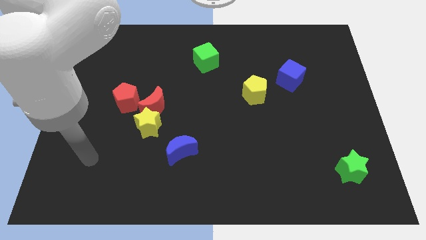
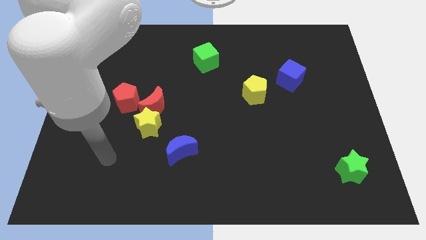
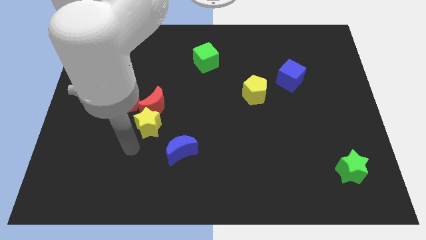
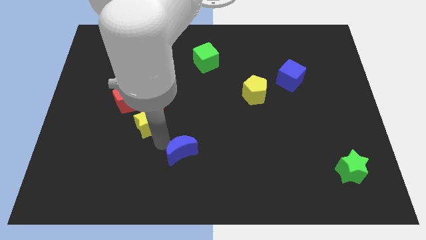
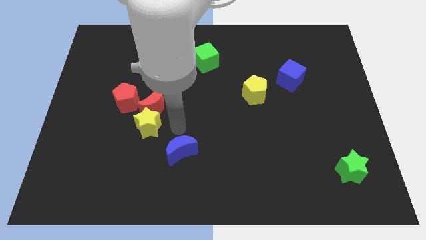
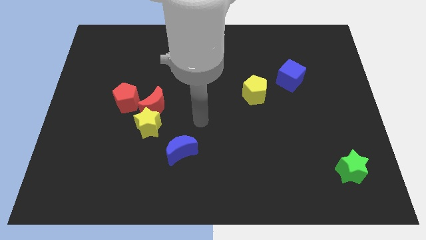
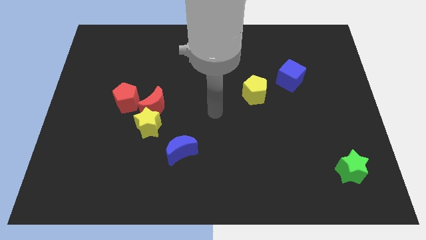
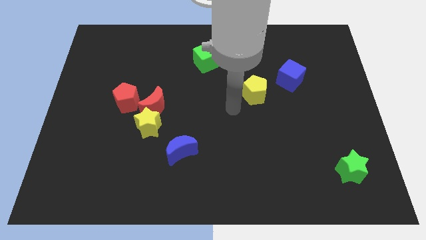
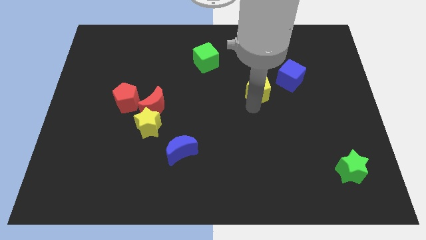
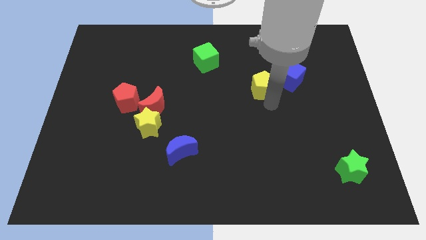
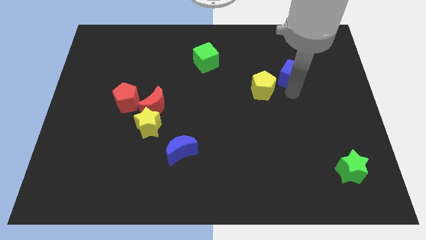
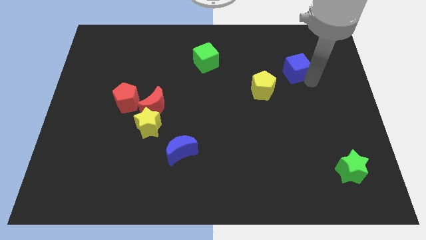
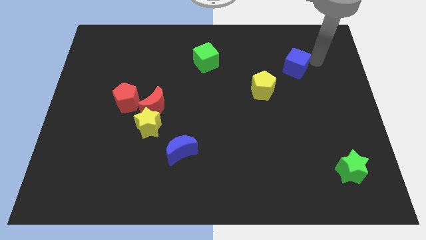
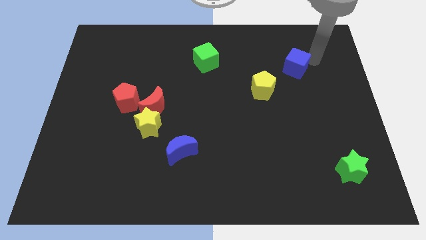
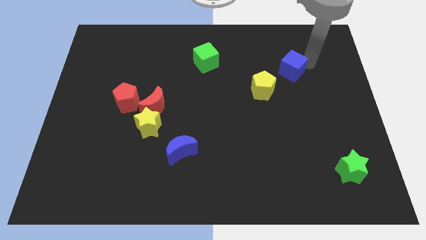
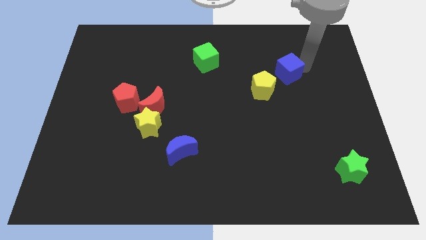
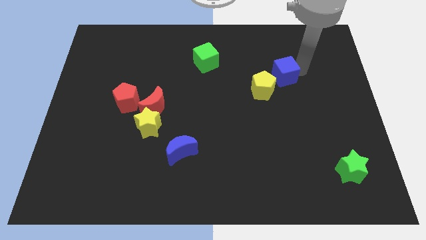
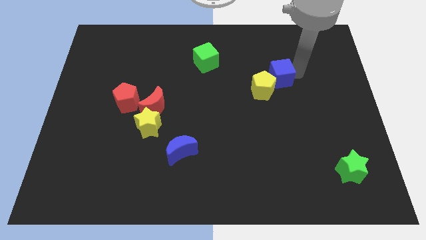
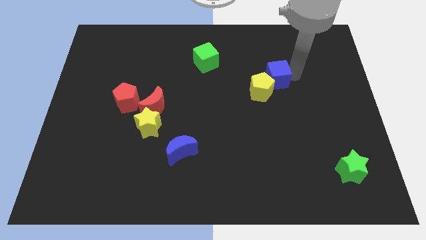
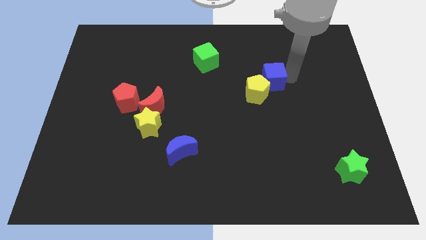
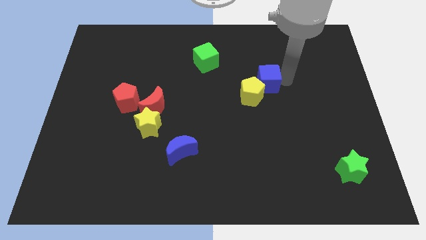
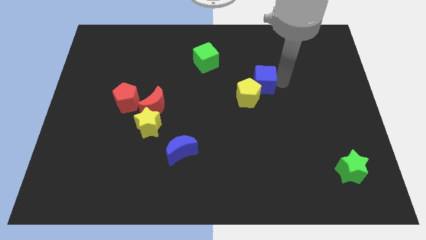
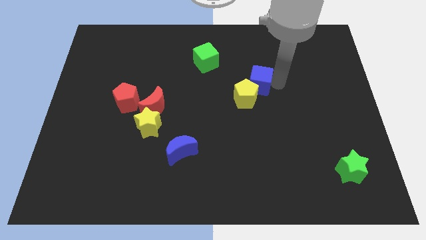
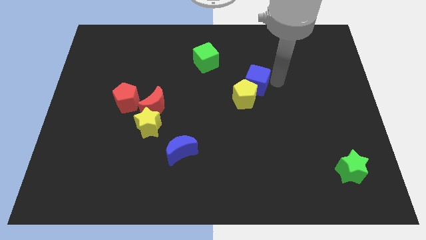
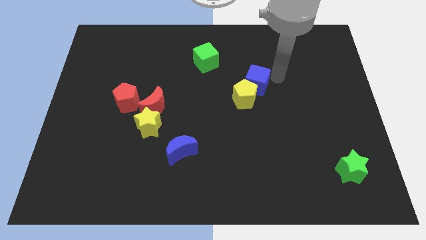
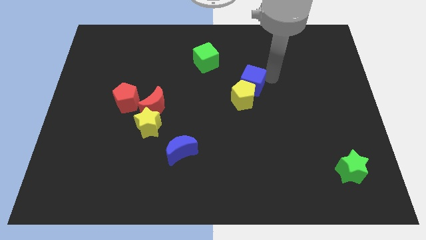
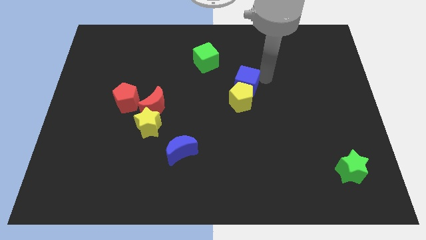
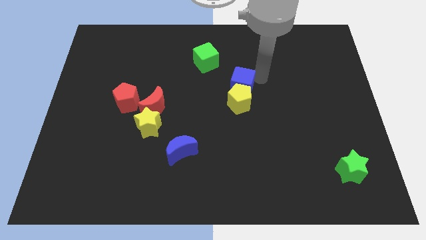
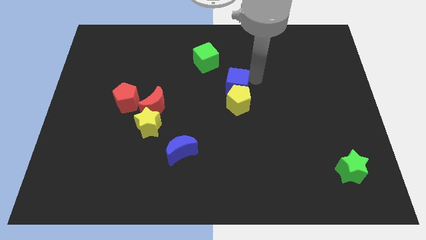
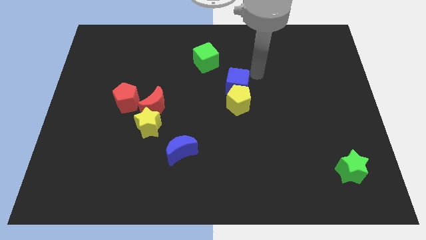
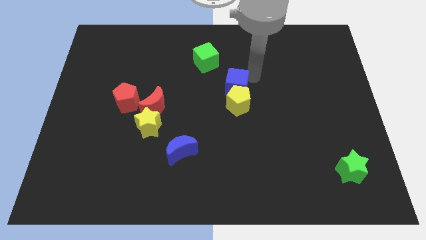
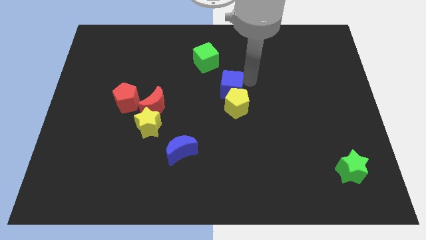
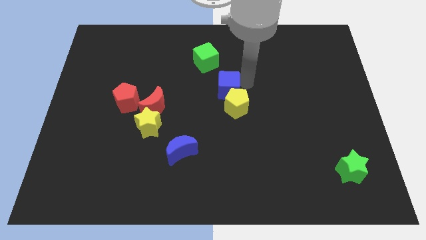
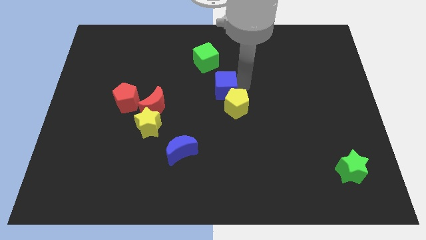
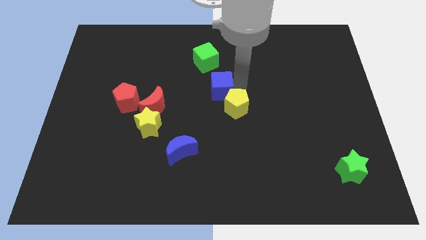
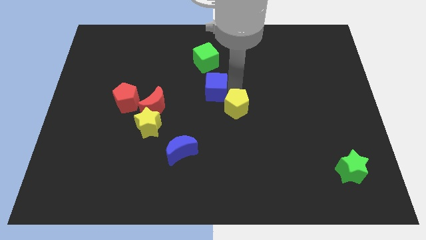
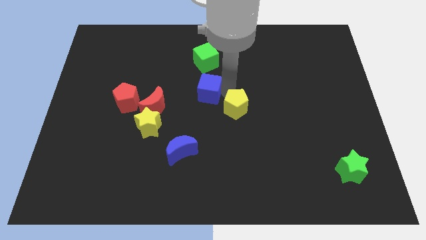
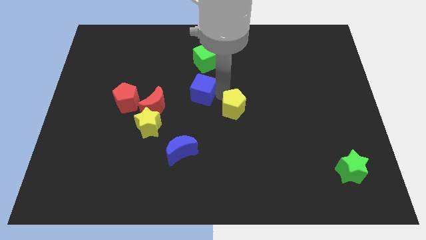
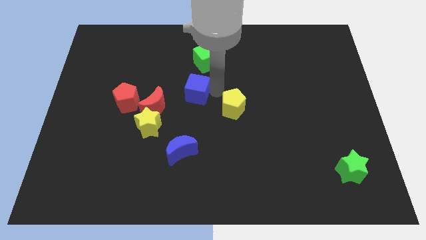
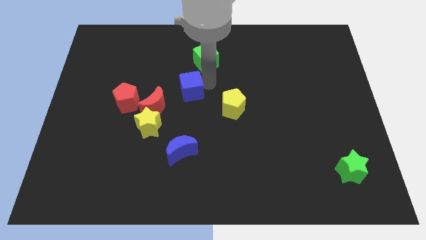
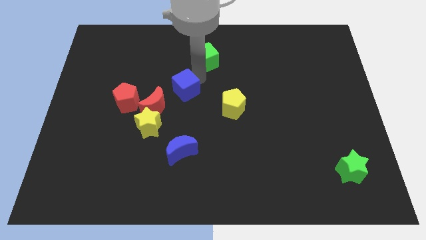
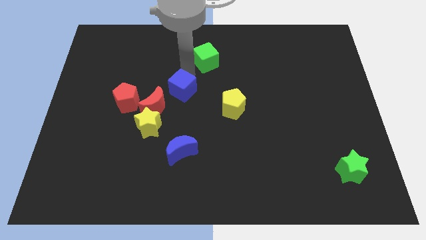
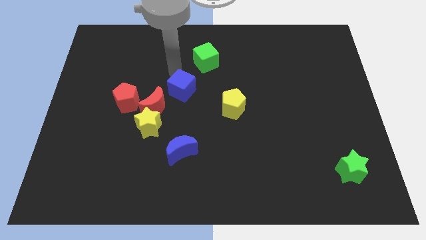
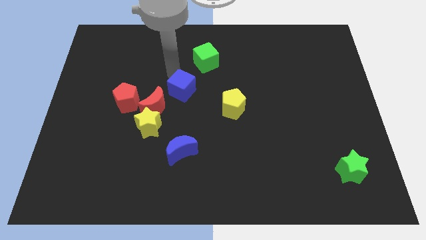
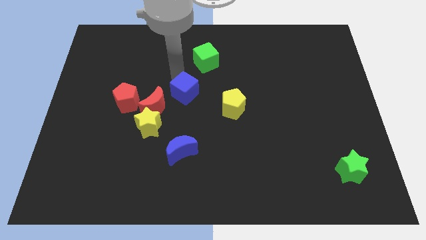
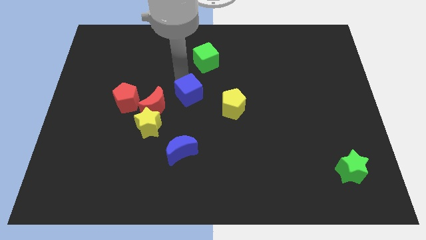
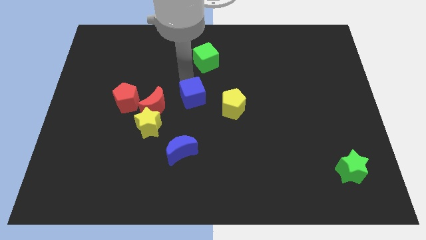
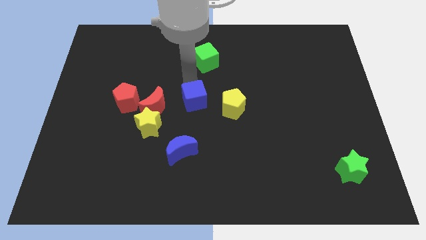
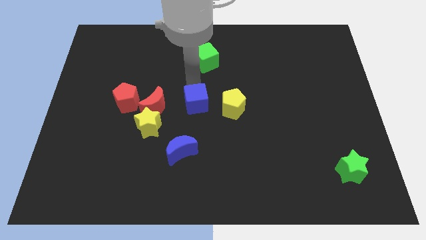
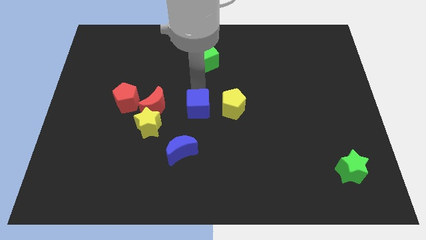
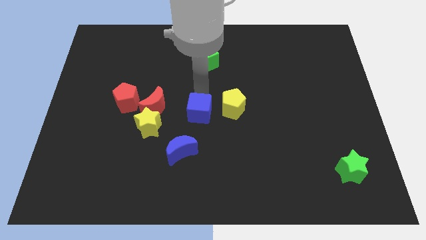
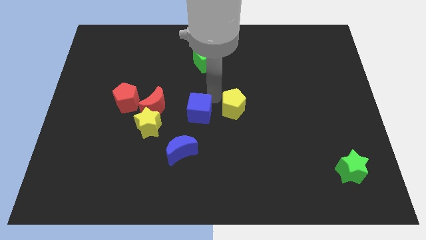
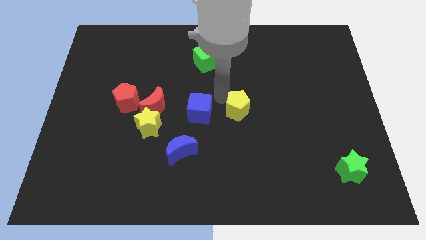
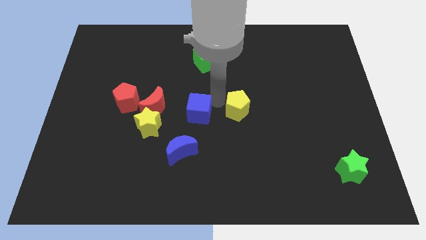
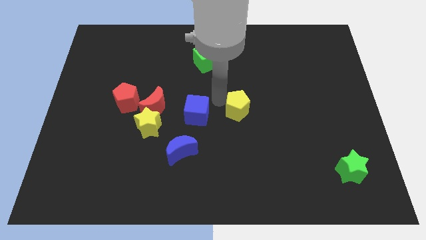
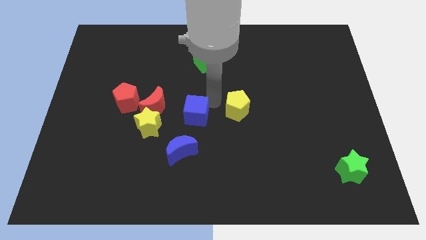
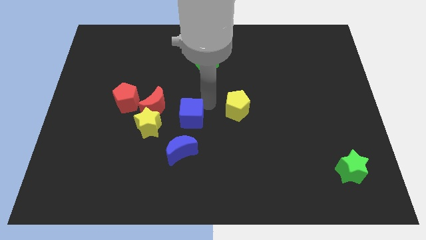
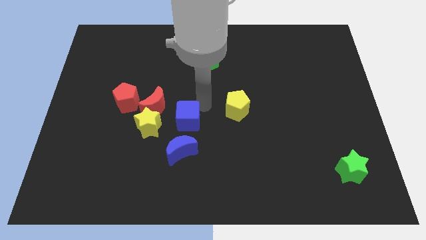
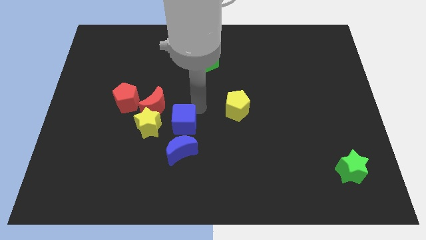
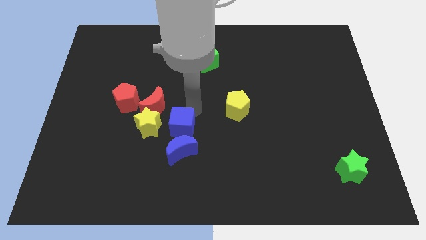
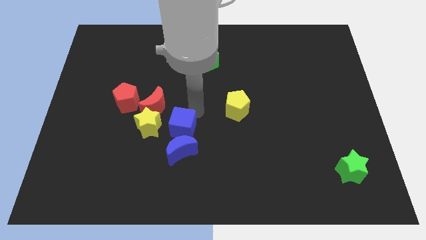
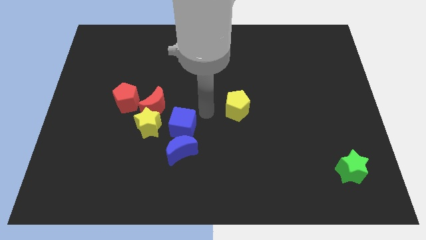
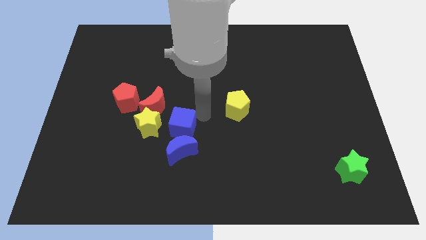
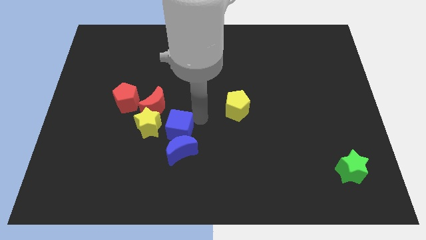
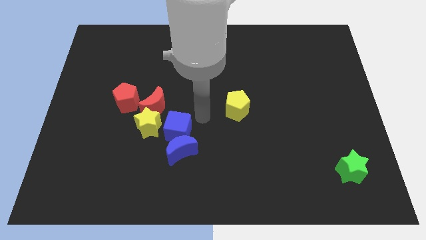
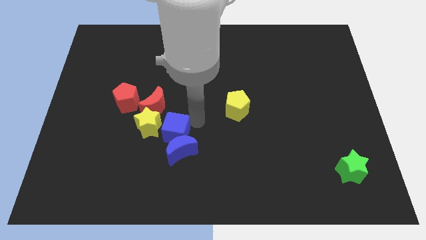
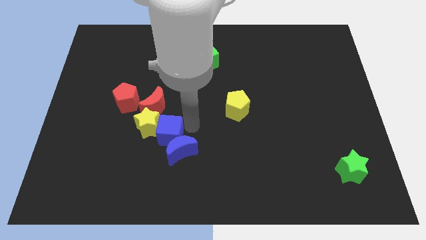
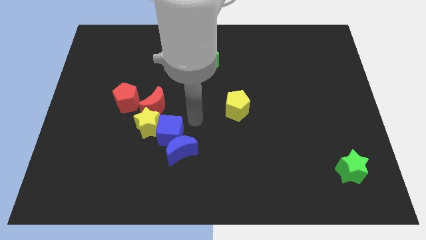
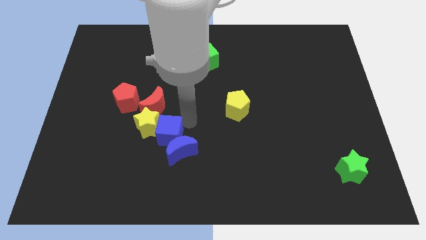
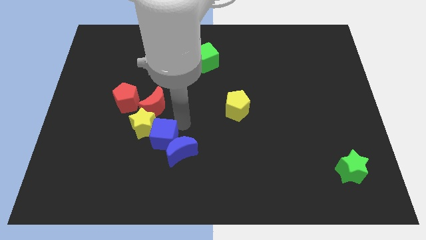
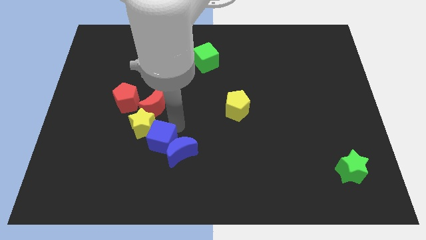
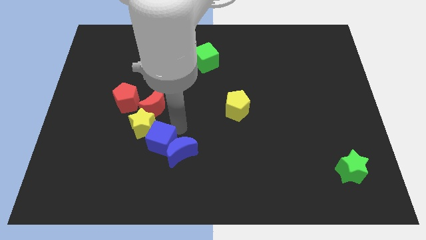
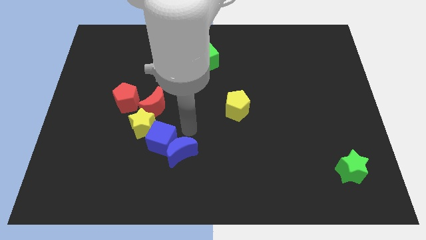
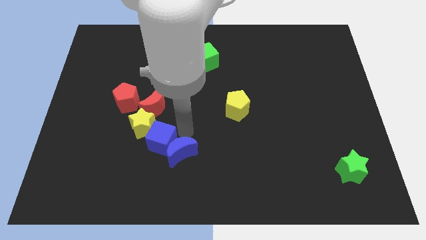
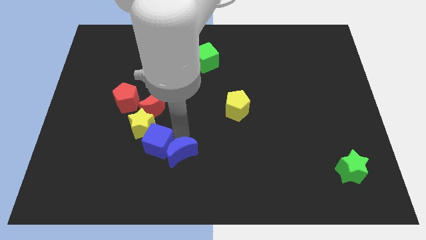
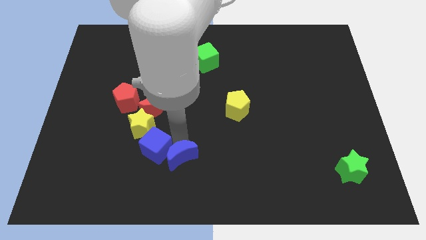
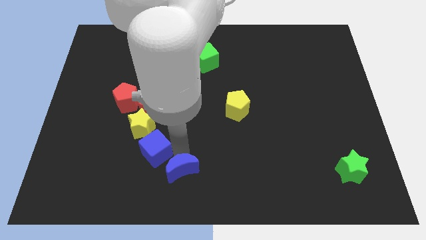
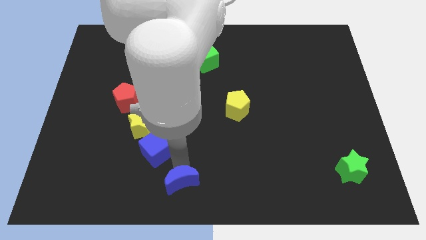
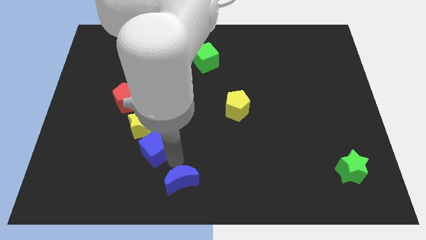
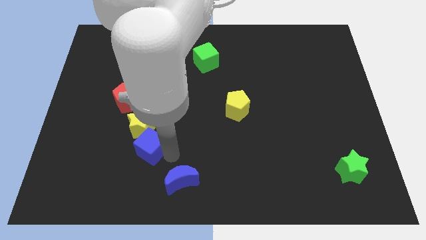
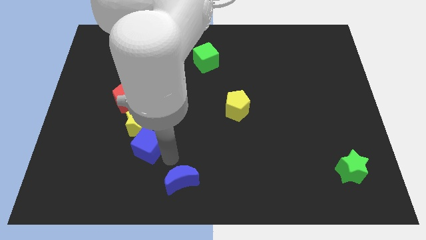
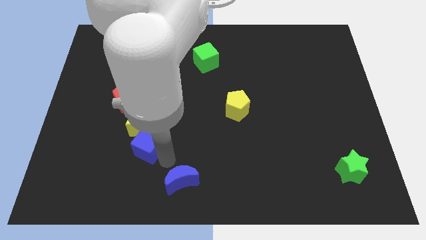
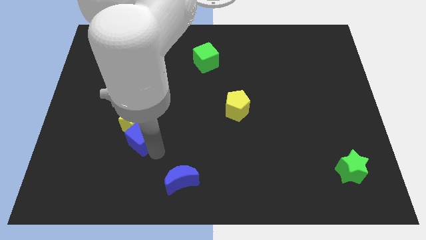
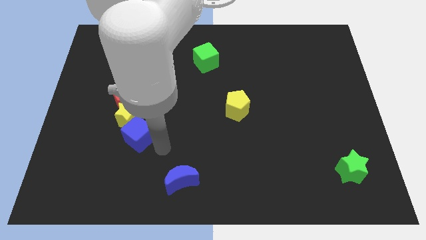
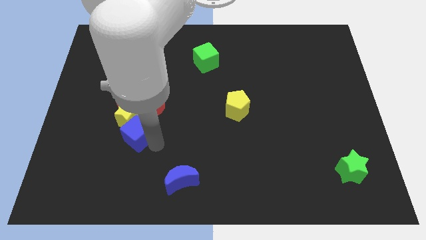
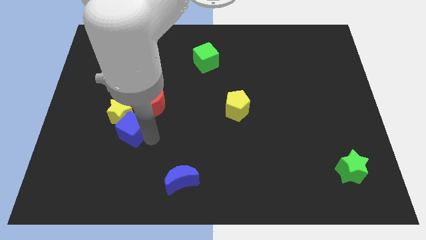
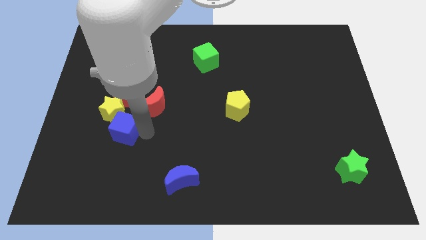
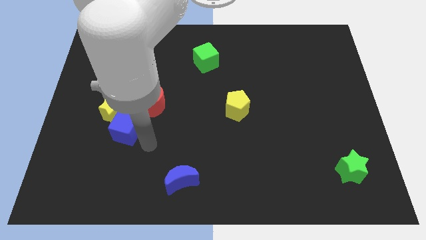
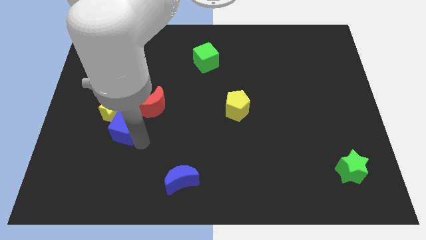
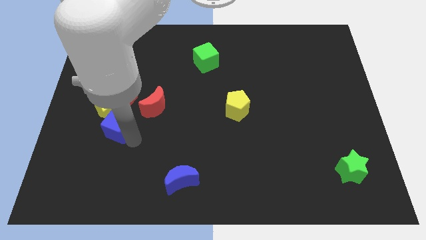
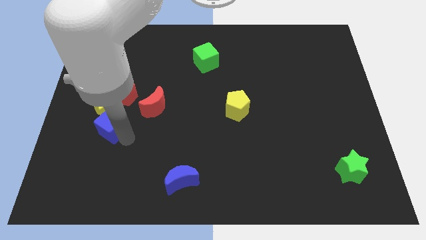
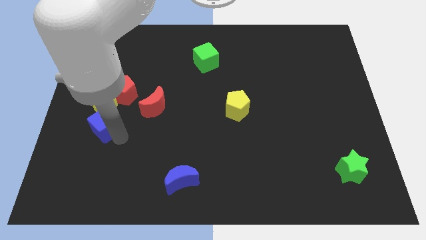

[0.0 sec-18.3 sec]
move the blue cube diagonally down and to the left of the red pentagon
